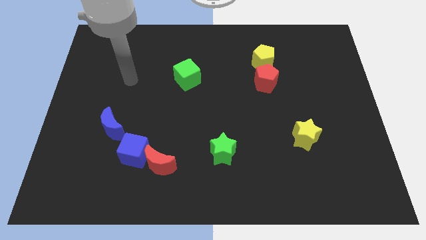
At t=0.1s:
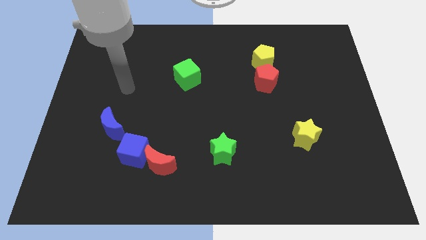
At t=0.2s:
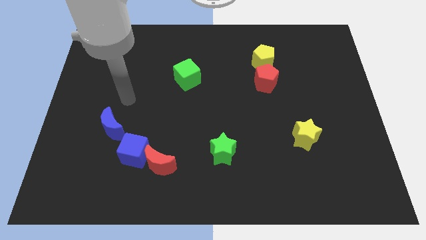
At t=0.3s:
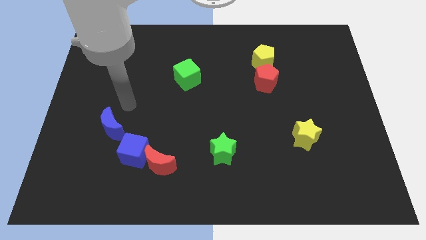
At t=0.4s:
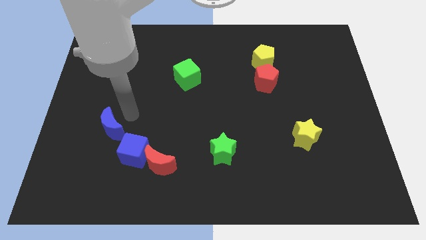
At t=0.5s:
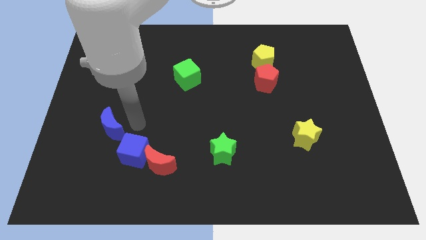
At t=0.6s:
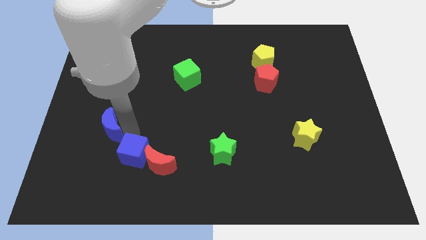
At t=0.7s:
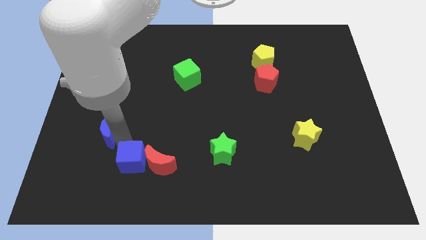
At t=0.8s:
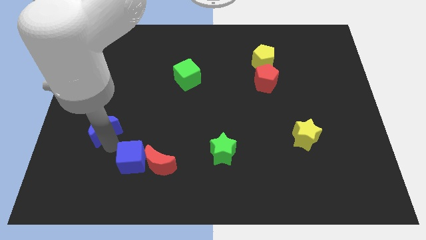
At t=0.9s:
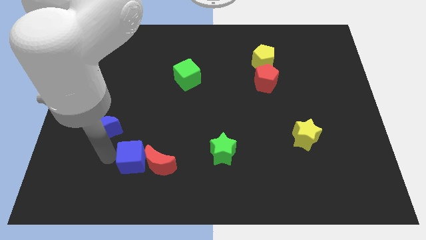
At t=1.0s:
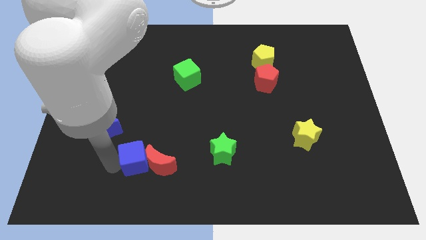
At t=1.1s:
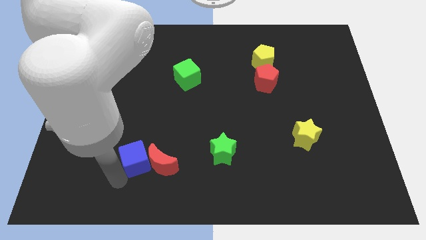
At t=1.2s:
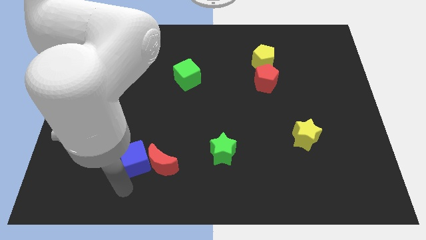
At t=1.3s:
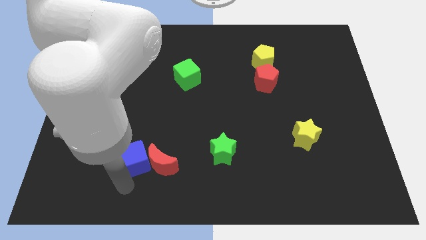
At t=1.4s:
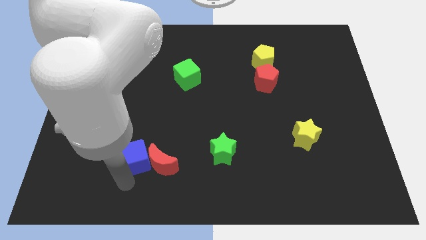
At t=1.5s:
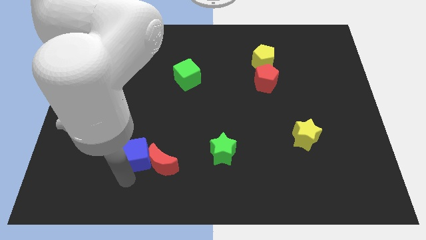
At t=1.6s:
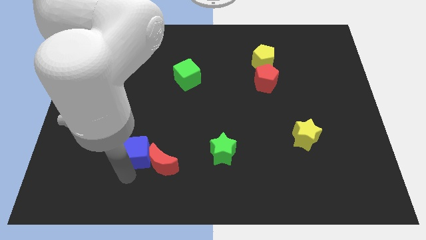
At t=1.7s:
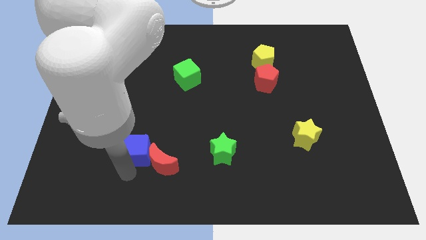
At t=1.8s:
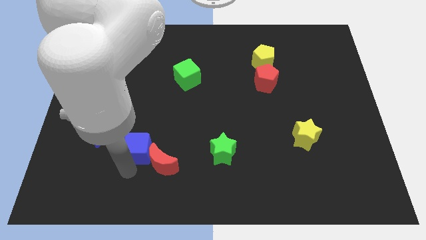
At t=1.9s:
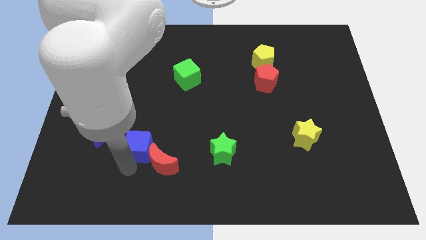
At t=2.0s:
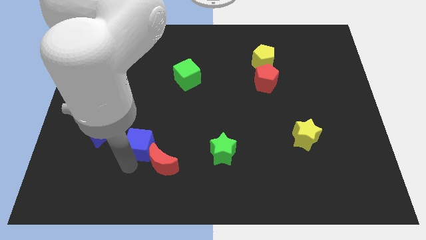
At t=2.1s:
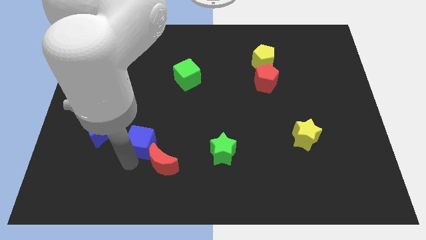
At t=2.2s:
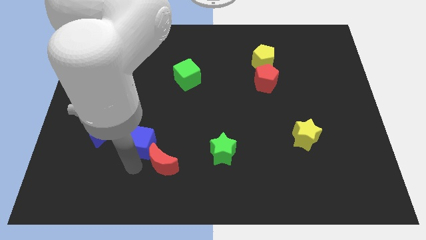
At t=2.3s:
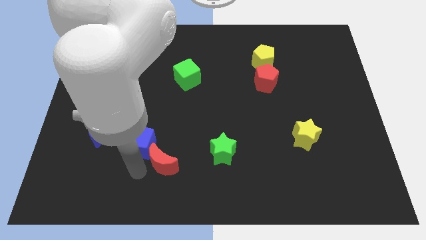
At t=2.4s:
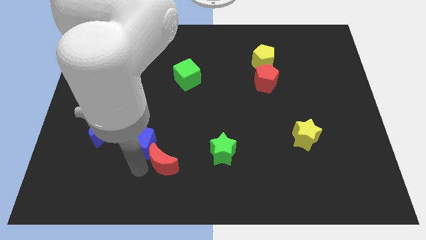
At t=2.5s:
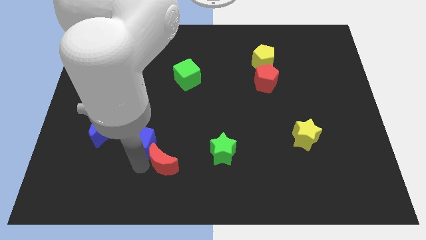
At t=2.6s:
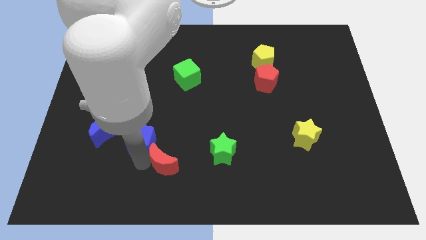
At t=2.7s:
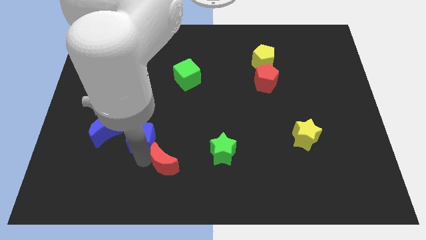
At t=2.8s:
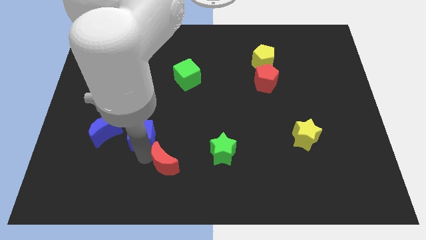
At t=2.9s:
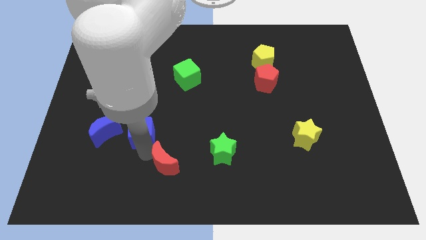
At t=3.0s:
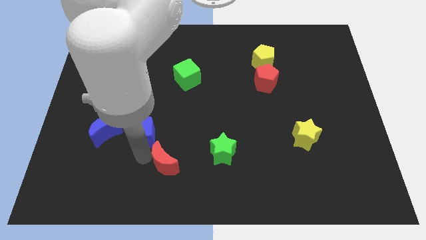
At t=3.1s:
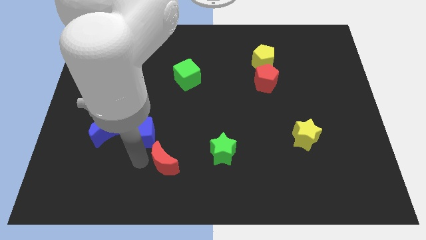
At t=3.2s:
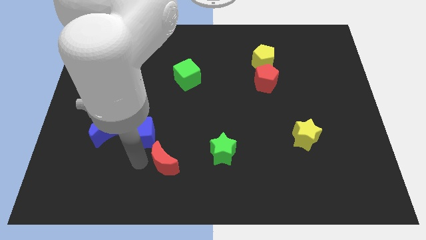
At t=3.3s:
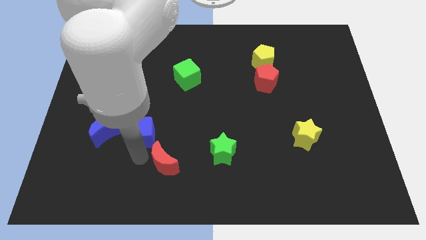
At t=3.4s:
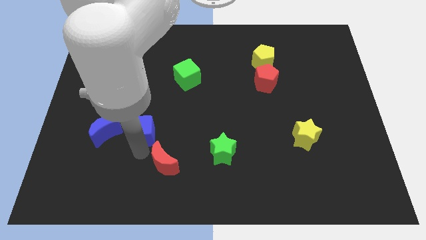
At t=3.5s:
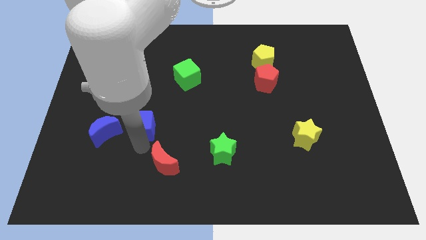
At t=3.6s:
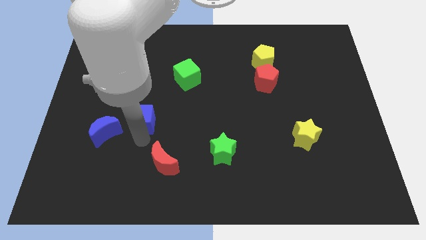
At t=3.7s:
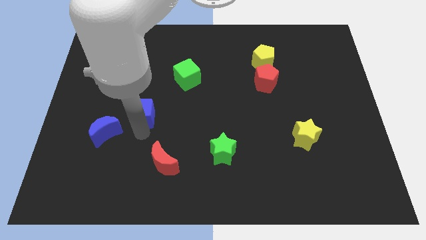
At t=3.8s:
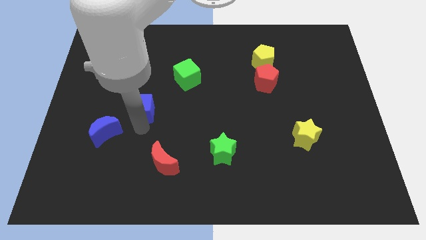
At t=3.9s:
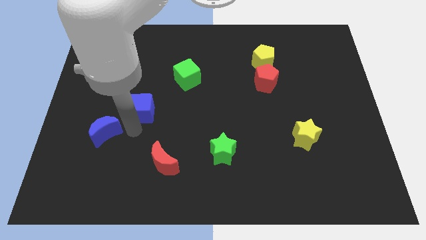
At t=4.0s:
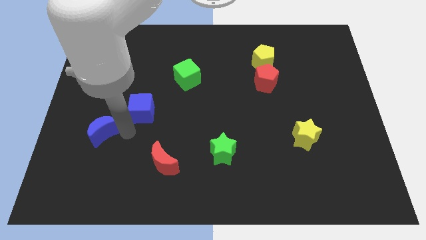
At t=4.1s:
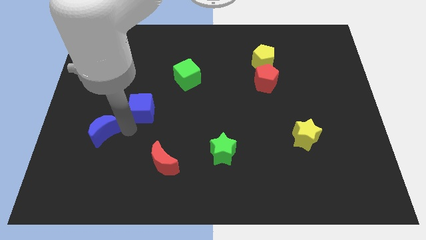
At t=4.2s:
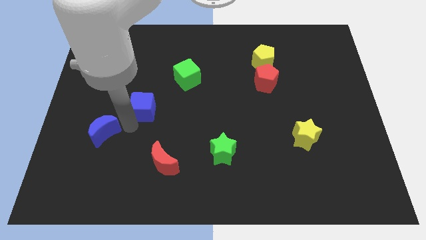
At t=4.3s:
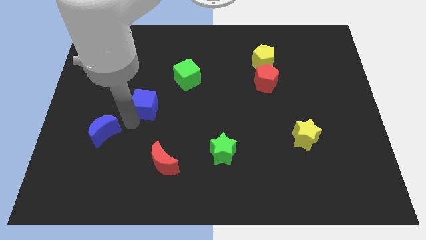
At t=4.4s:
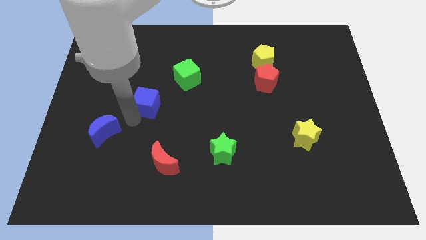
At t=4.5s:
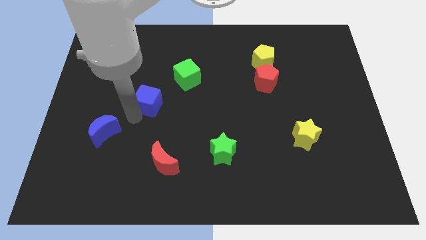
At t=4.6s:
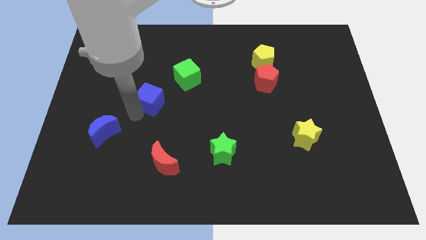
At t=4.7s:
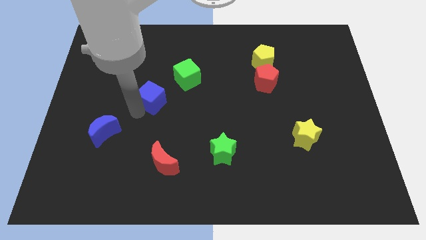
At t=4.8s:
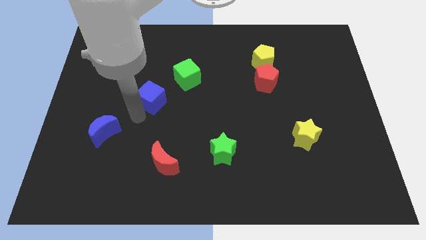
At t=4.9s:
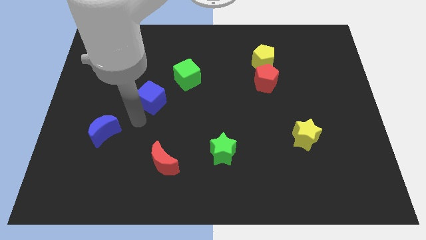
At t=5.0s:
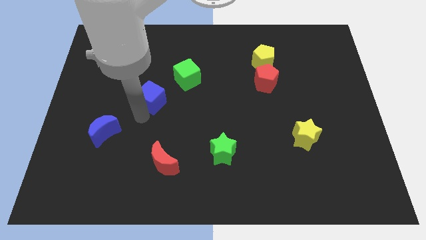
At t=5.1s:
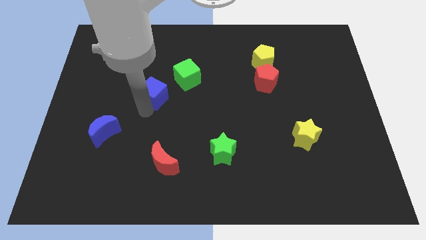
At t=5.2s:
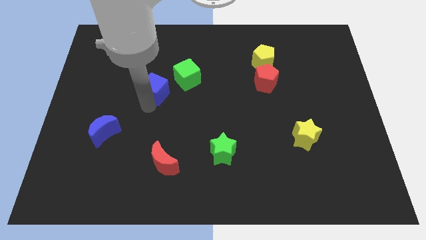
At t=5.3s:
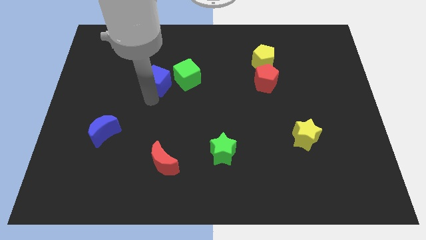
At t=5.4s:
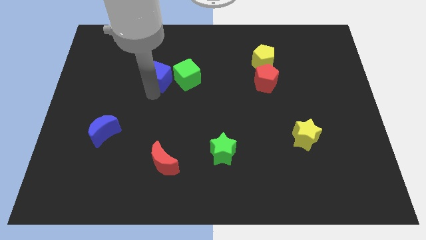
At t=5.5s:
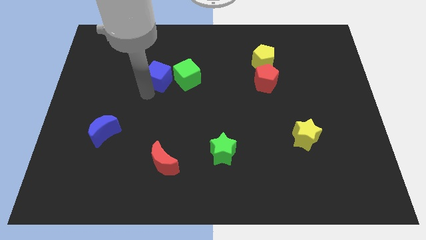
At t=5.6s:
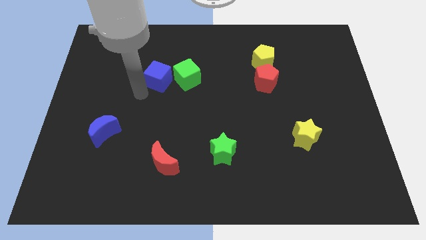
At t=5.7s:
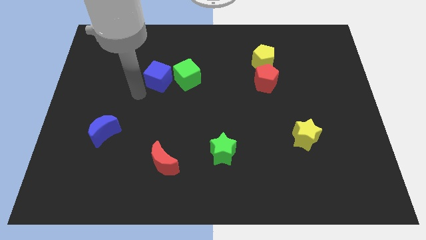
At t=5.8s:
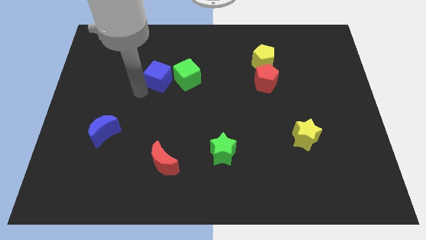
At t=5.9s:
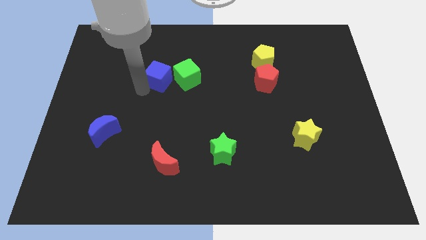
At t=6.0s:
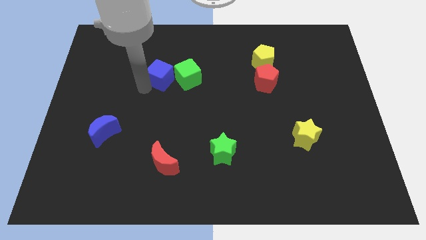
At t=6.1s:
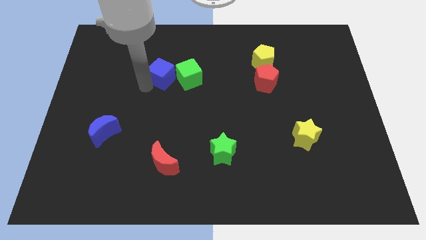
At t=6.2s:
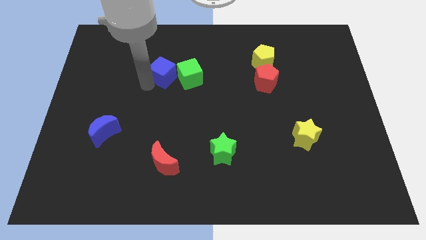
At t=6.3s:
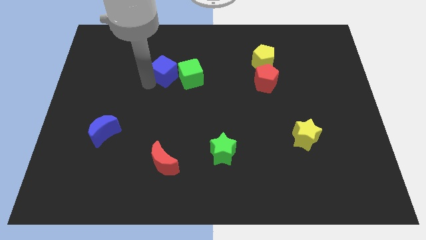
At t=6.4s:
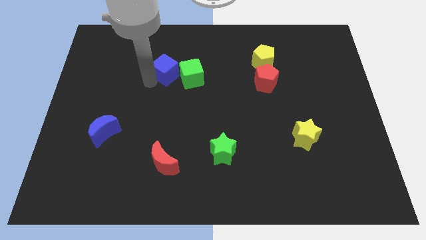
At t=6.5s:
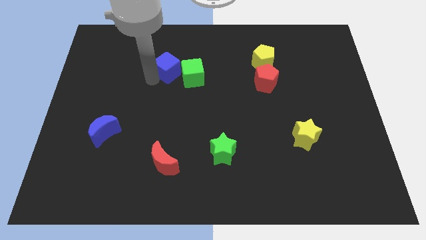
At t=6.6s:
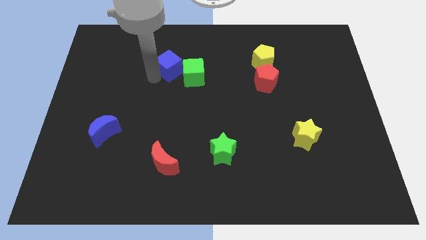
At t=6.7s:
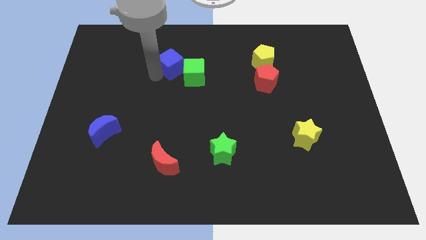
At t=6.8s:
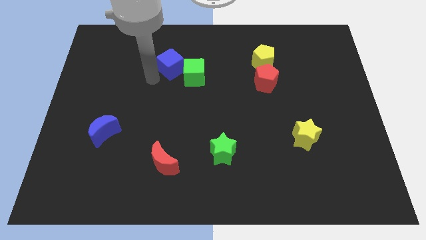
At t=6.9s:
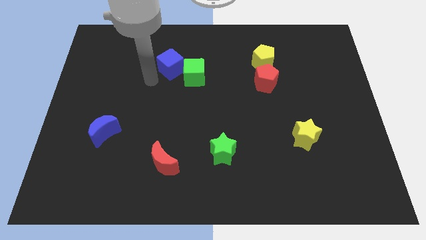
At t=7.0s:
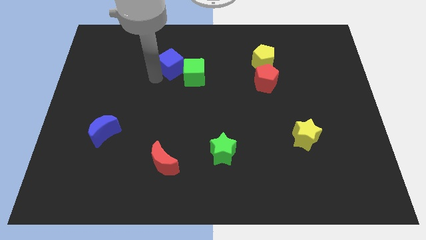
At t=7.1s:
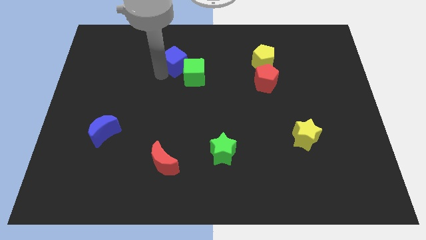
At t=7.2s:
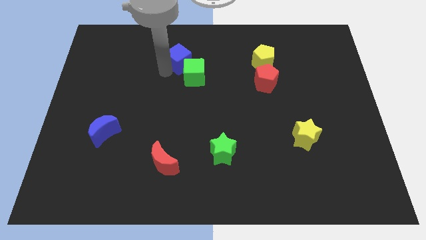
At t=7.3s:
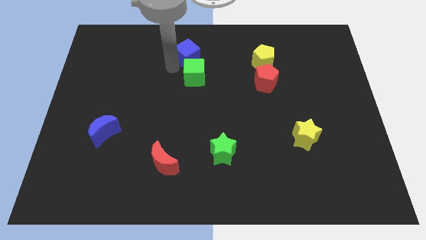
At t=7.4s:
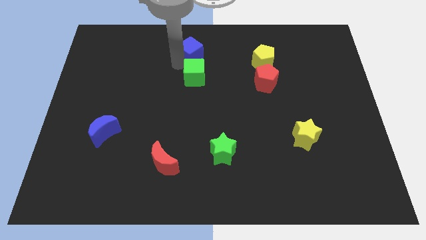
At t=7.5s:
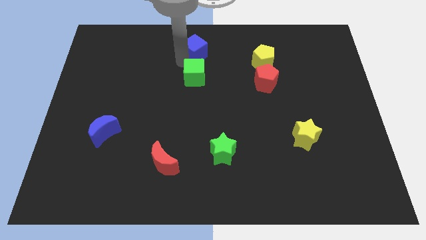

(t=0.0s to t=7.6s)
move the blue cube to the top
